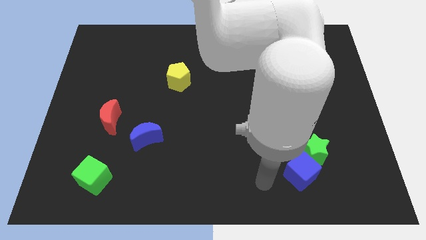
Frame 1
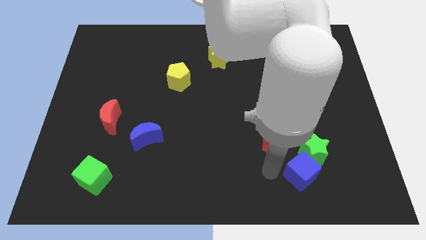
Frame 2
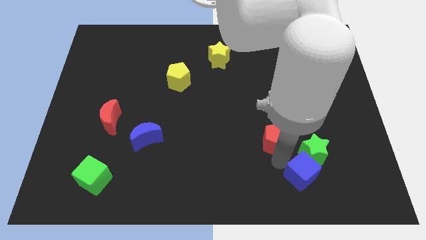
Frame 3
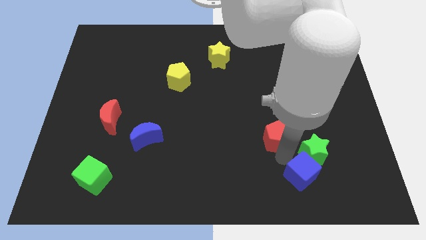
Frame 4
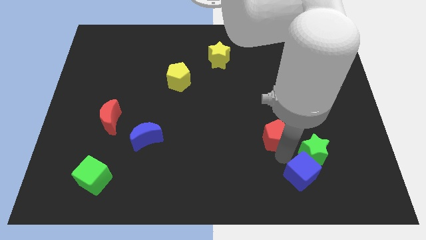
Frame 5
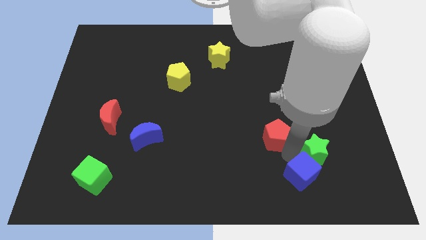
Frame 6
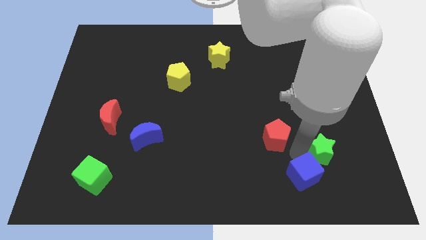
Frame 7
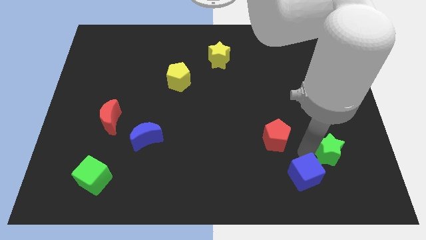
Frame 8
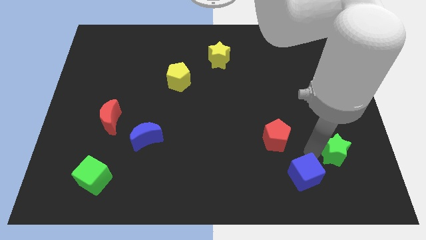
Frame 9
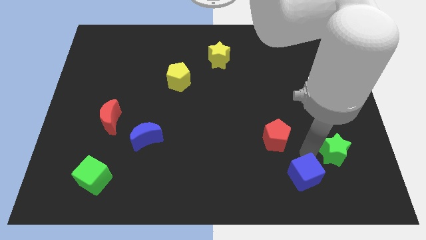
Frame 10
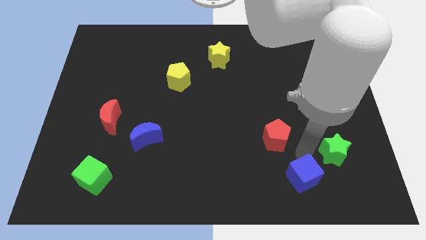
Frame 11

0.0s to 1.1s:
pull the green star apart from the blue cube and red pentagon

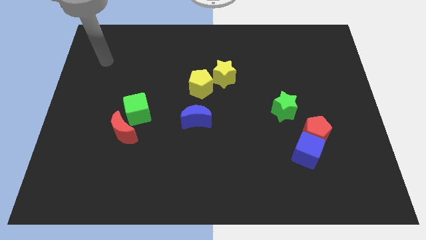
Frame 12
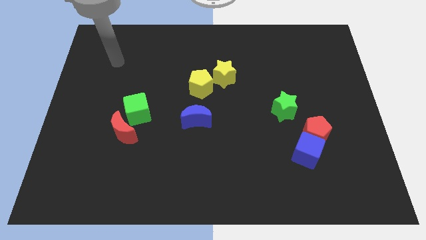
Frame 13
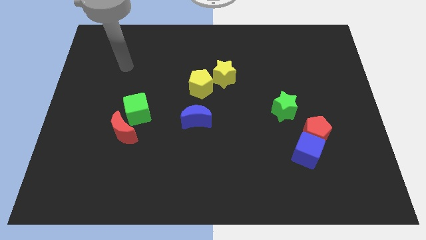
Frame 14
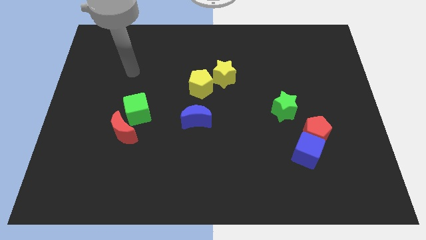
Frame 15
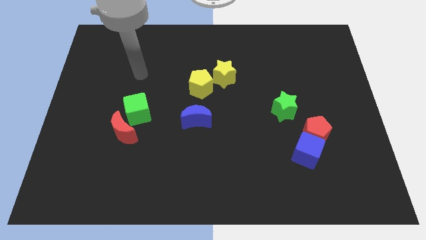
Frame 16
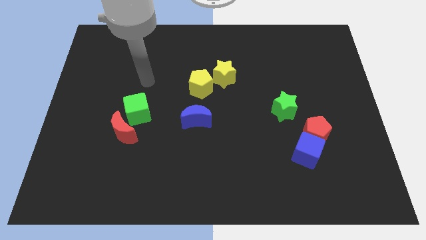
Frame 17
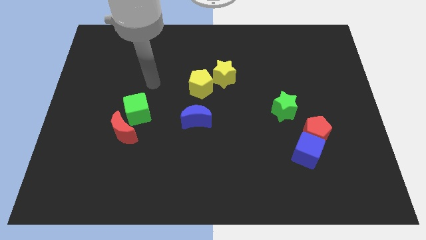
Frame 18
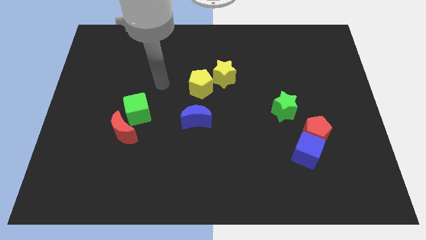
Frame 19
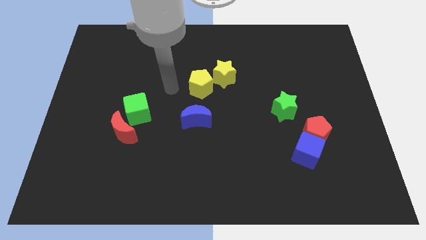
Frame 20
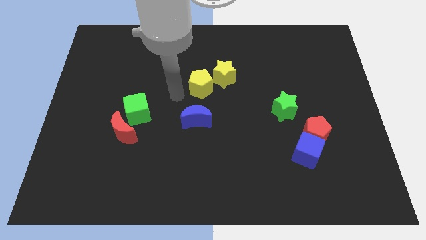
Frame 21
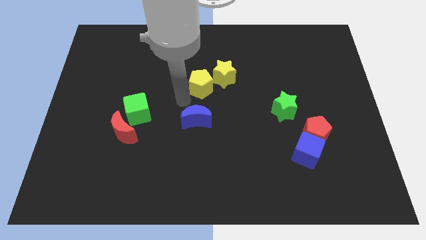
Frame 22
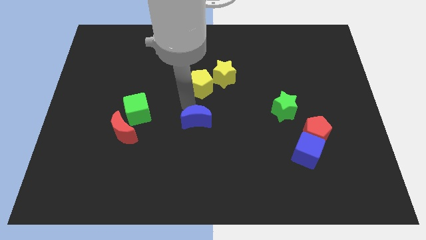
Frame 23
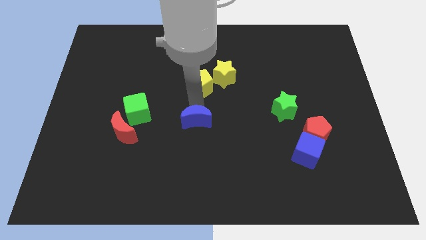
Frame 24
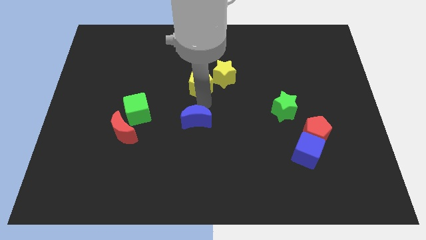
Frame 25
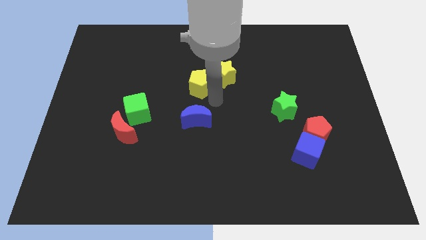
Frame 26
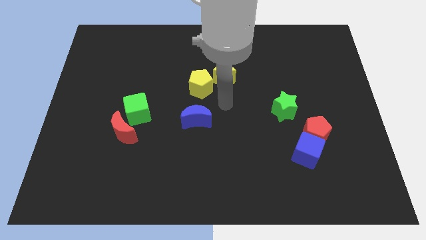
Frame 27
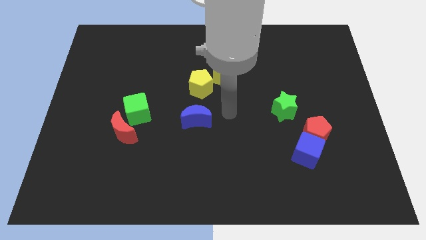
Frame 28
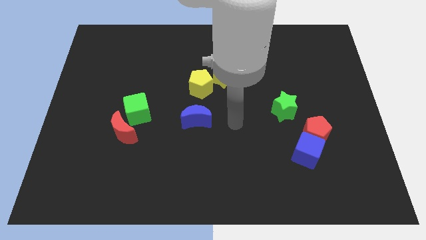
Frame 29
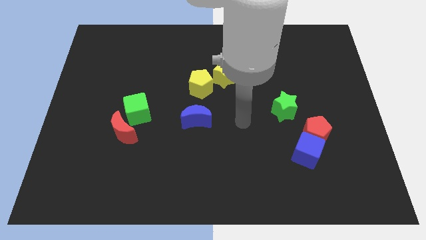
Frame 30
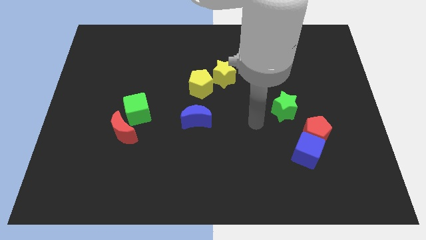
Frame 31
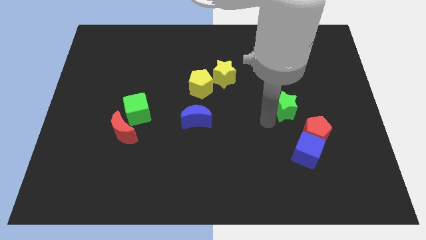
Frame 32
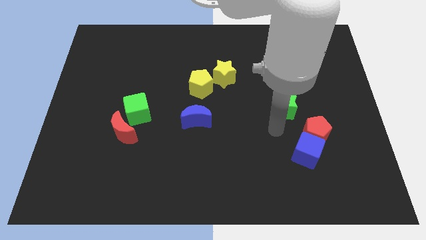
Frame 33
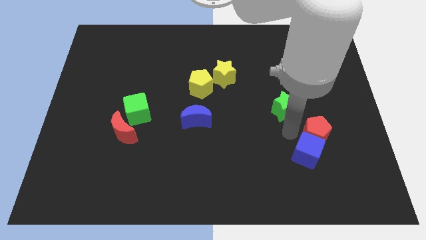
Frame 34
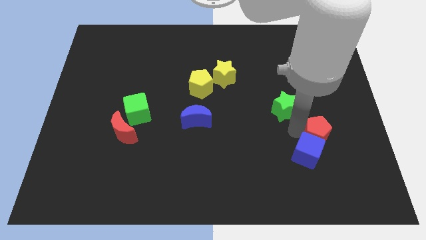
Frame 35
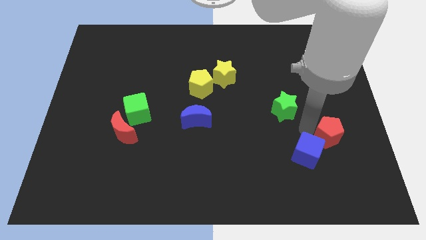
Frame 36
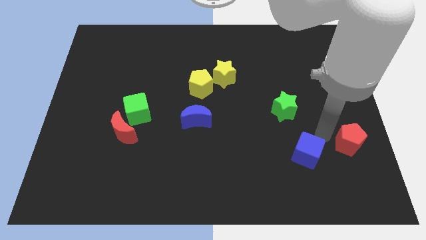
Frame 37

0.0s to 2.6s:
move the blue cube away from the red pentagon

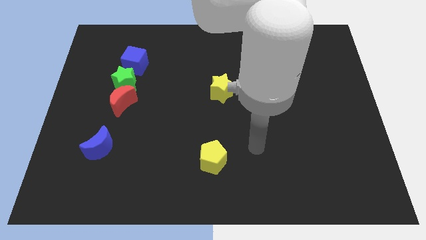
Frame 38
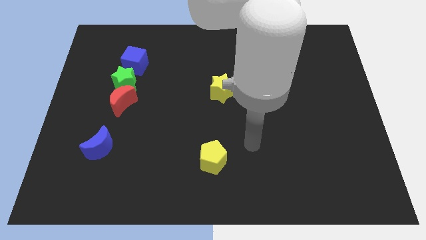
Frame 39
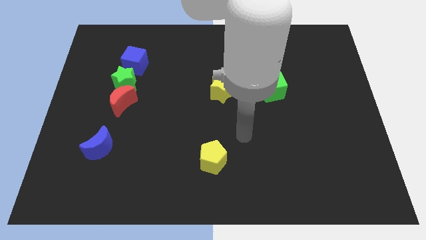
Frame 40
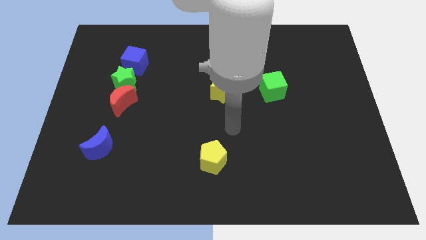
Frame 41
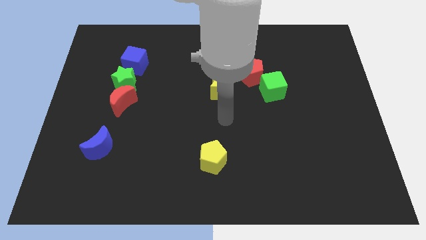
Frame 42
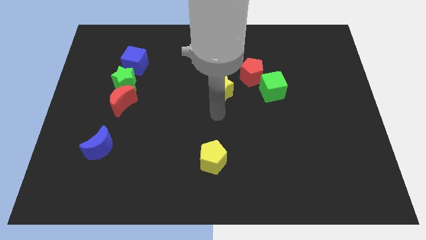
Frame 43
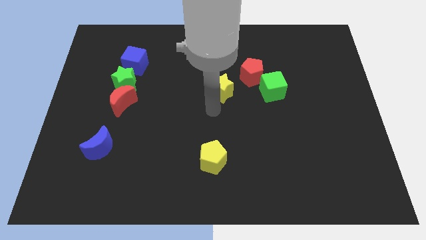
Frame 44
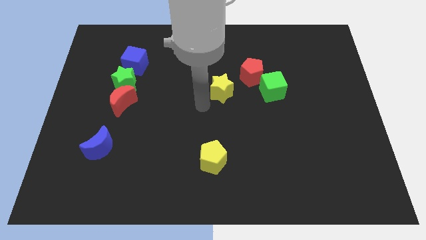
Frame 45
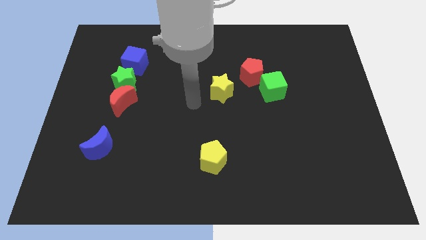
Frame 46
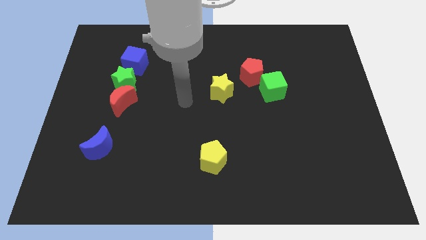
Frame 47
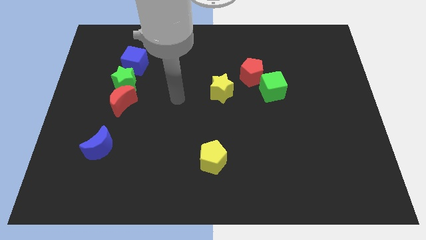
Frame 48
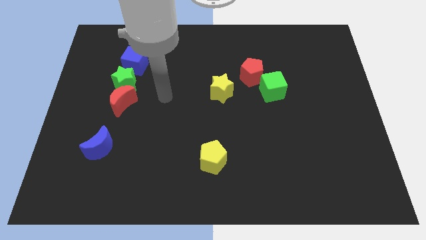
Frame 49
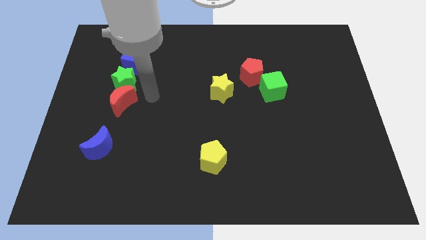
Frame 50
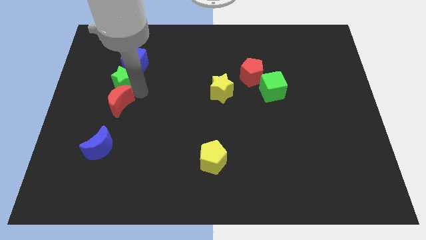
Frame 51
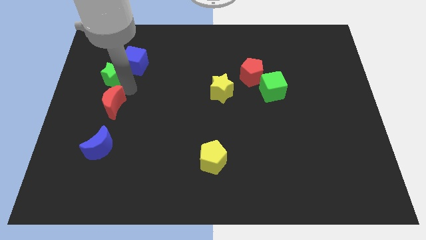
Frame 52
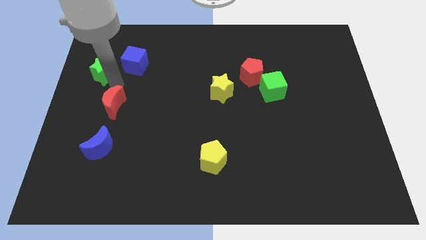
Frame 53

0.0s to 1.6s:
move the red moon away from the green star

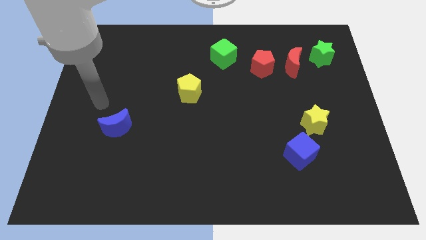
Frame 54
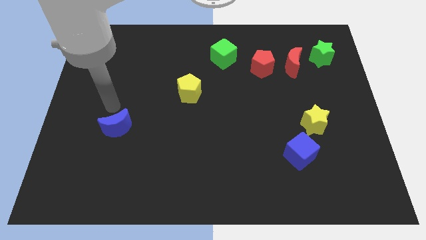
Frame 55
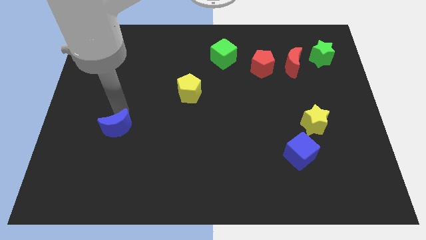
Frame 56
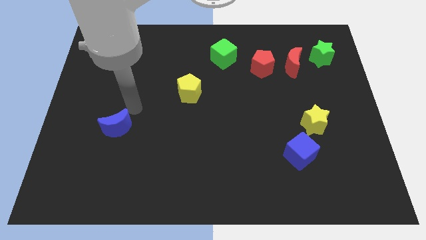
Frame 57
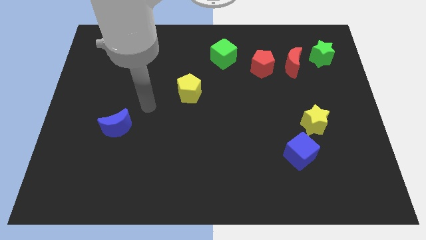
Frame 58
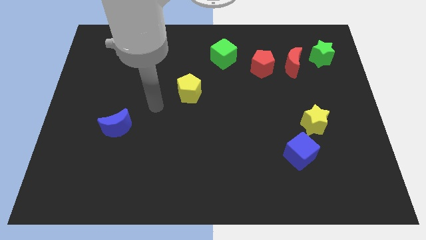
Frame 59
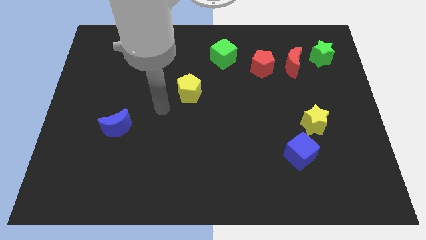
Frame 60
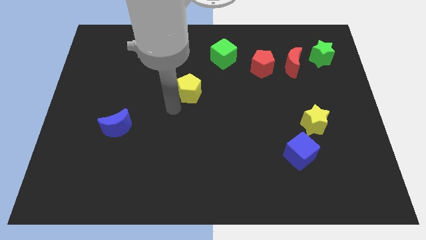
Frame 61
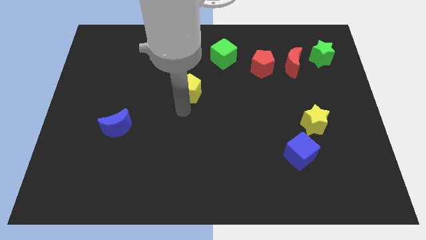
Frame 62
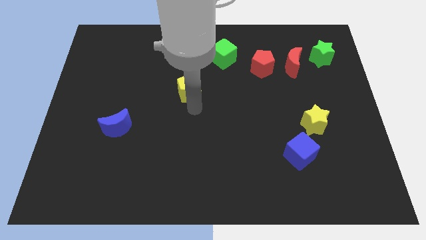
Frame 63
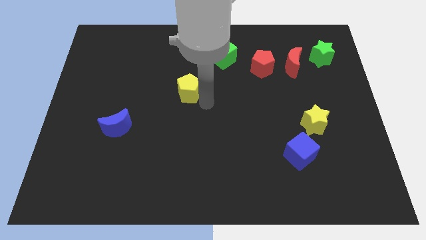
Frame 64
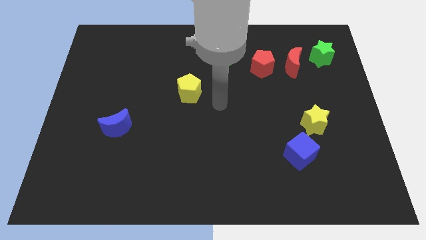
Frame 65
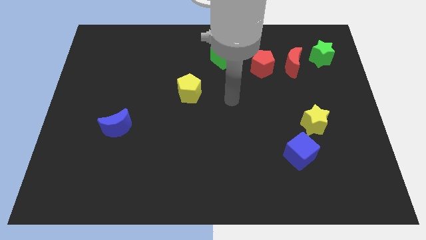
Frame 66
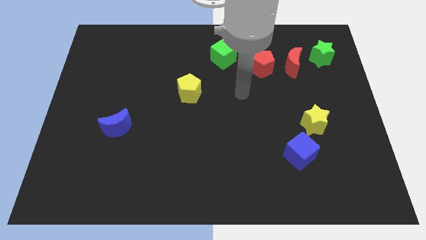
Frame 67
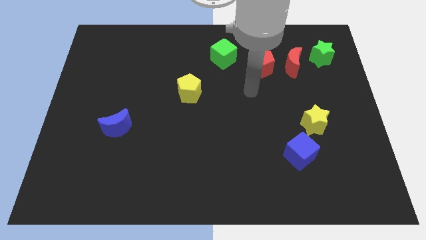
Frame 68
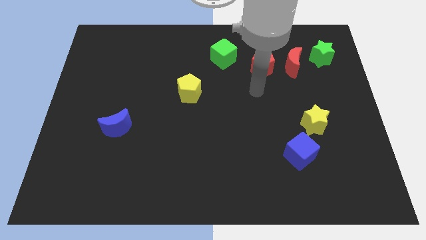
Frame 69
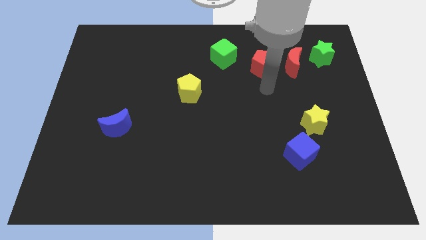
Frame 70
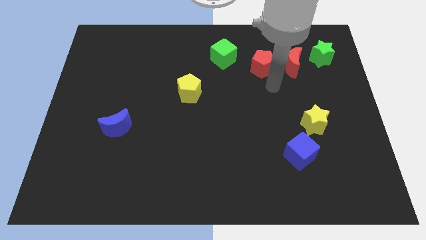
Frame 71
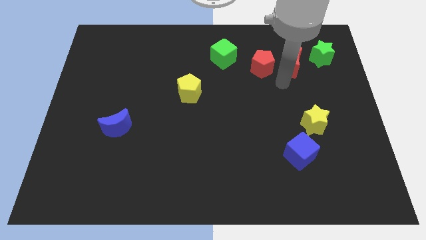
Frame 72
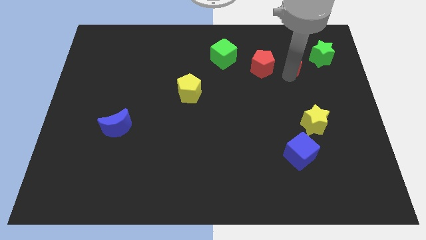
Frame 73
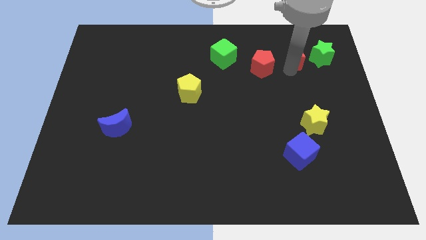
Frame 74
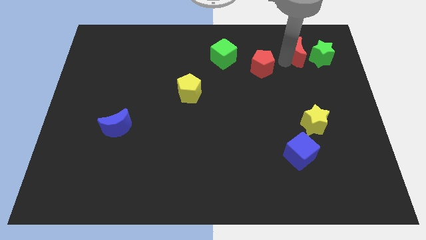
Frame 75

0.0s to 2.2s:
separate the red pentagon from the red moon

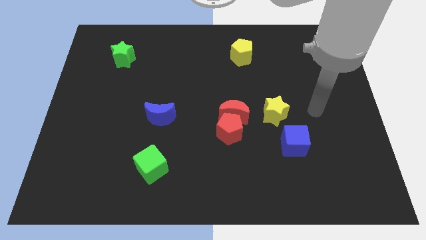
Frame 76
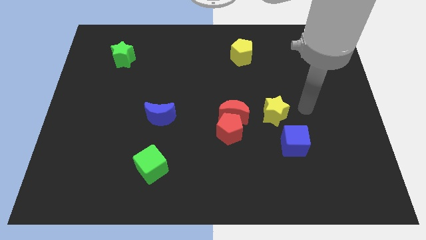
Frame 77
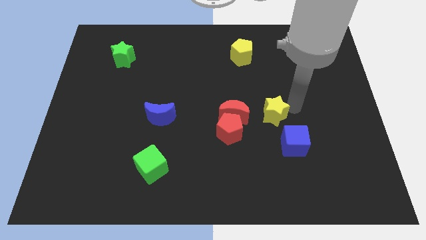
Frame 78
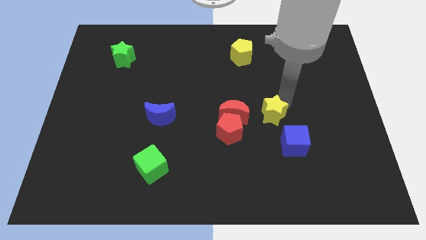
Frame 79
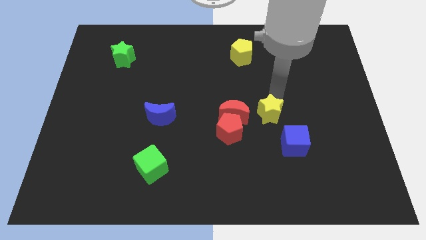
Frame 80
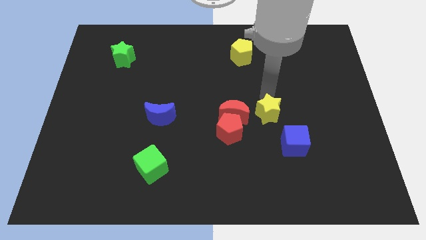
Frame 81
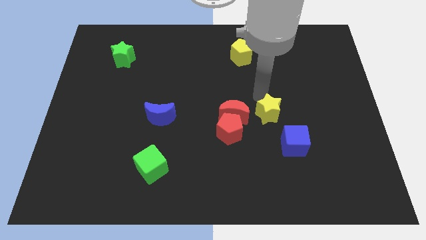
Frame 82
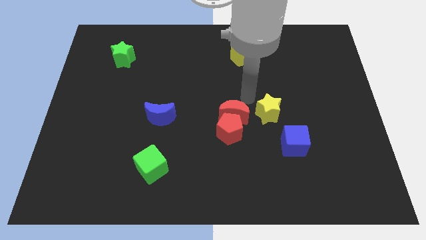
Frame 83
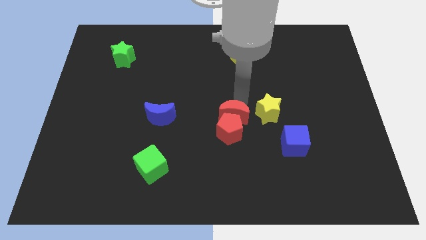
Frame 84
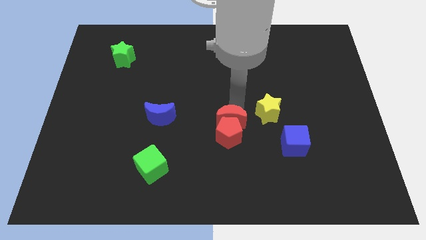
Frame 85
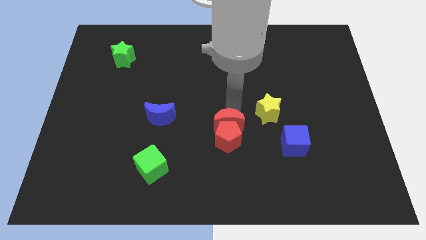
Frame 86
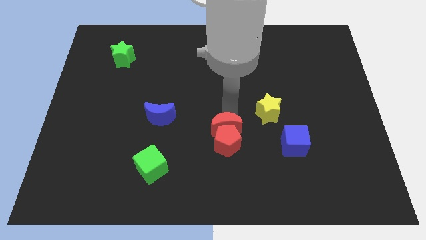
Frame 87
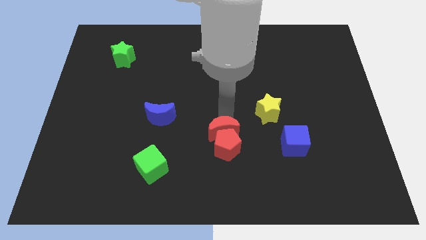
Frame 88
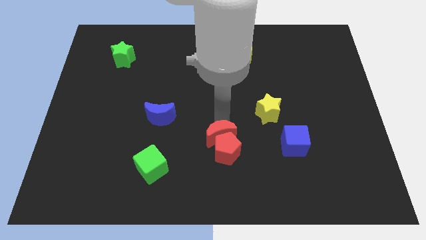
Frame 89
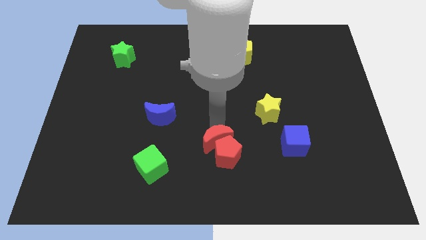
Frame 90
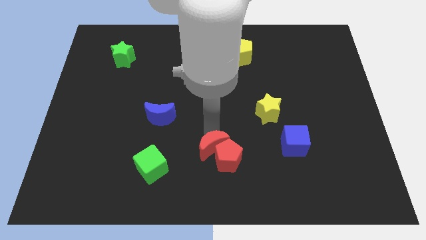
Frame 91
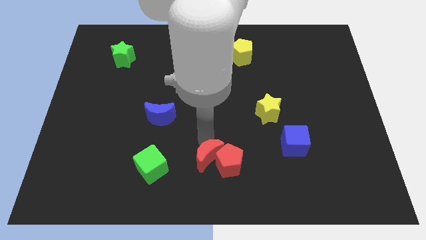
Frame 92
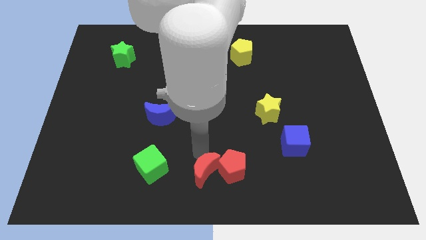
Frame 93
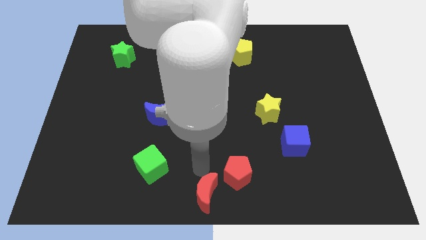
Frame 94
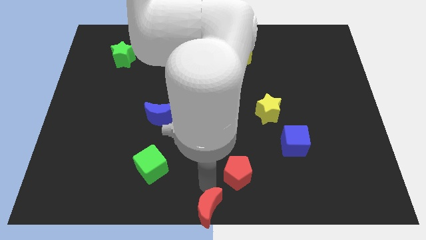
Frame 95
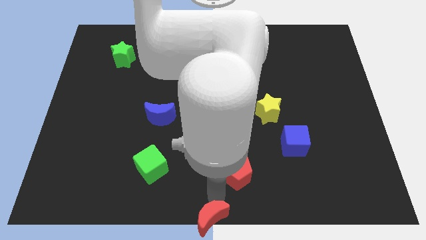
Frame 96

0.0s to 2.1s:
move the red pentagon away from the red moon
